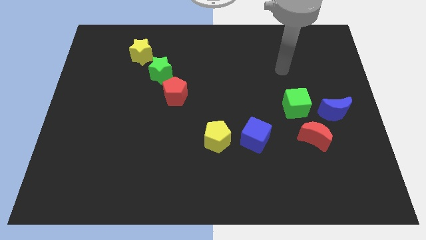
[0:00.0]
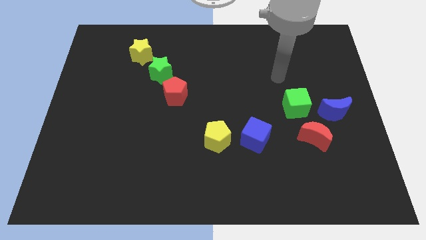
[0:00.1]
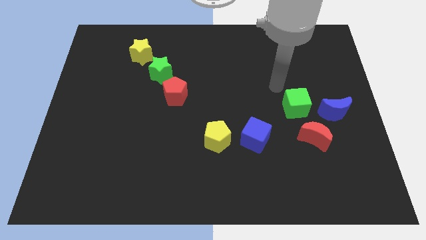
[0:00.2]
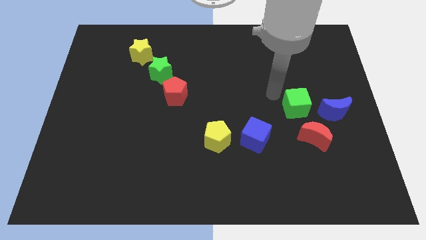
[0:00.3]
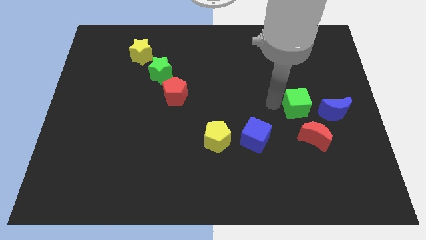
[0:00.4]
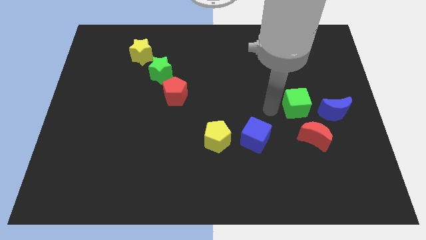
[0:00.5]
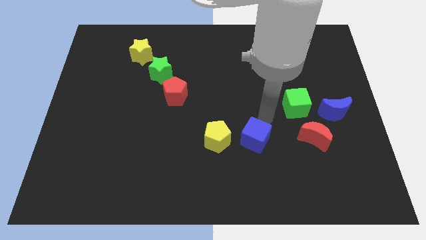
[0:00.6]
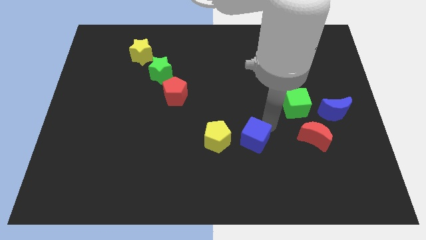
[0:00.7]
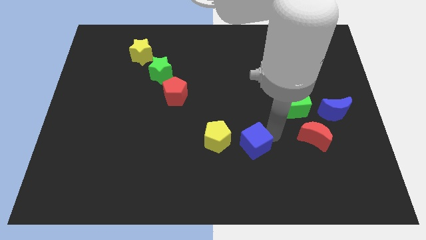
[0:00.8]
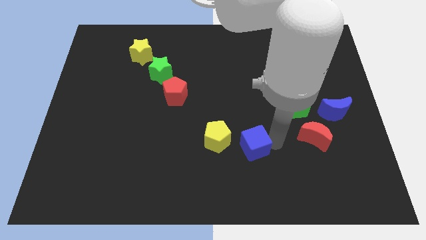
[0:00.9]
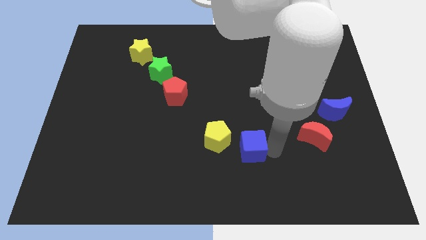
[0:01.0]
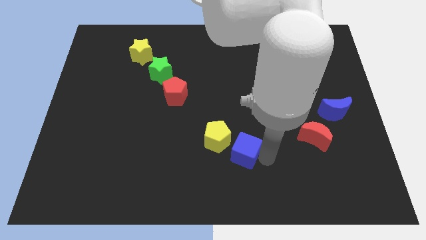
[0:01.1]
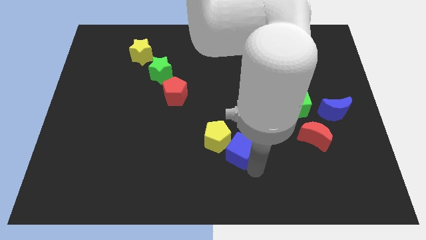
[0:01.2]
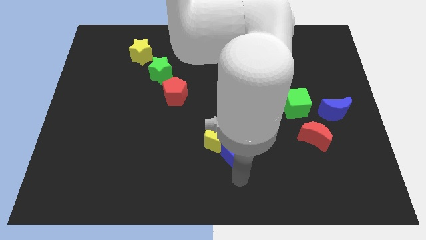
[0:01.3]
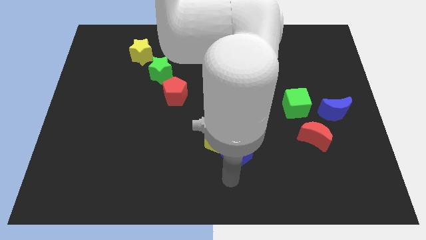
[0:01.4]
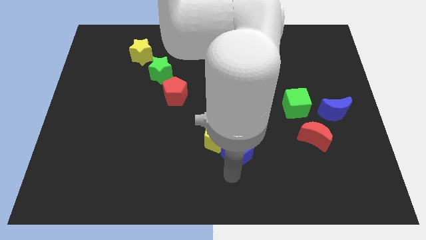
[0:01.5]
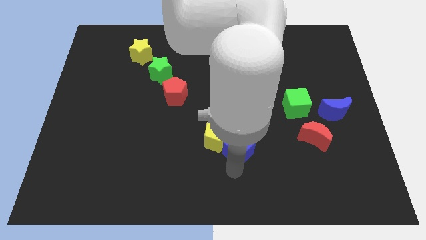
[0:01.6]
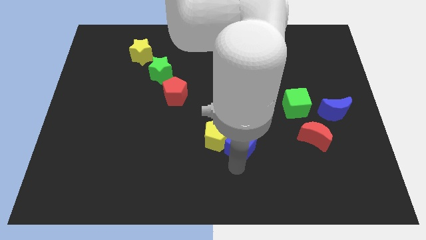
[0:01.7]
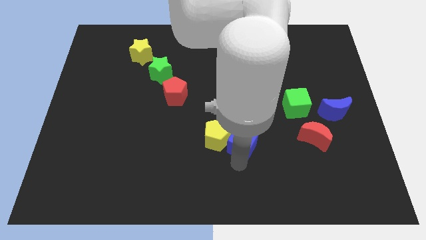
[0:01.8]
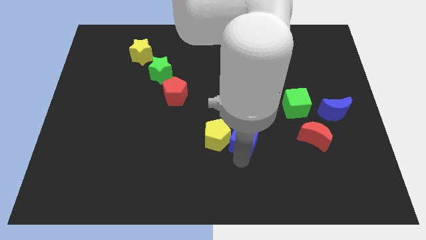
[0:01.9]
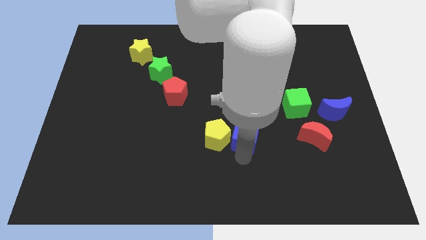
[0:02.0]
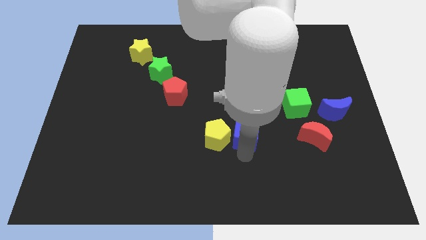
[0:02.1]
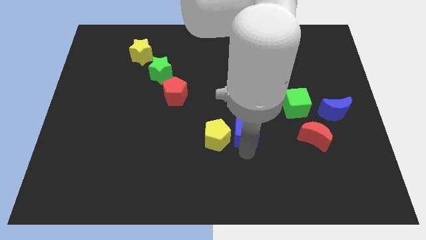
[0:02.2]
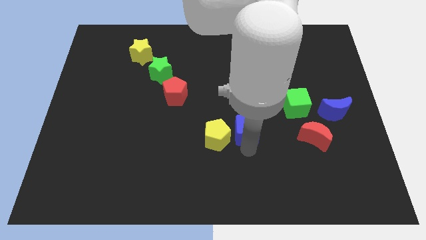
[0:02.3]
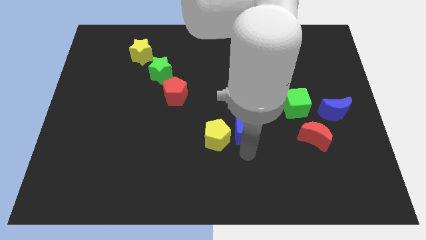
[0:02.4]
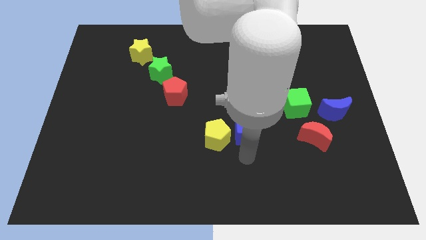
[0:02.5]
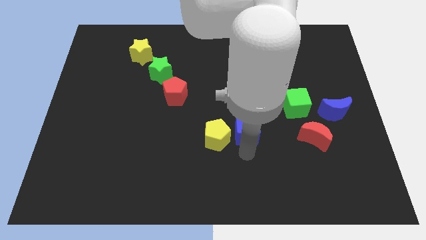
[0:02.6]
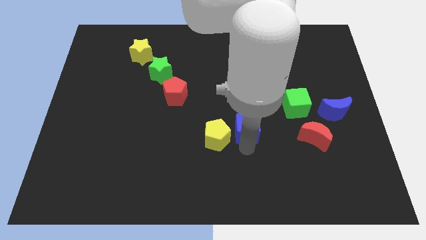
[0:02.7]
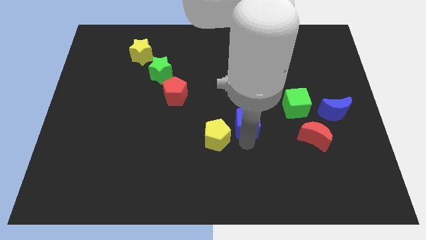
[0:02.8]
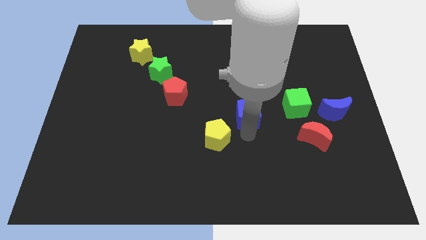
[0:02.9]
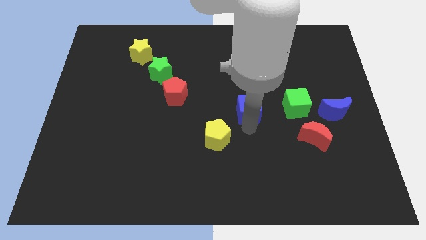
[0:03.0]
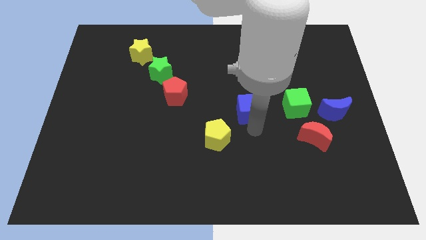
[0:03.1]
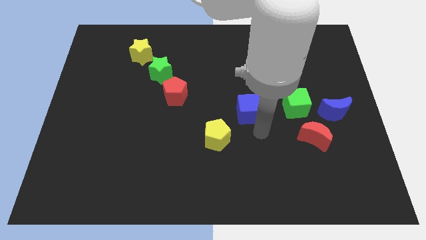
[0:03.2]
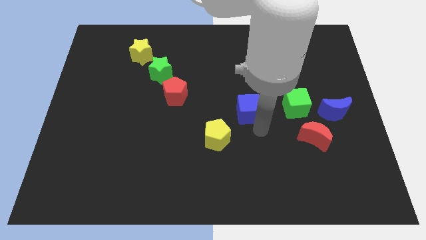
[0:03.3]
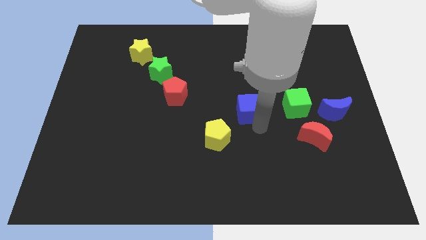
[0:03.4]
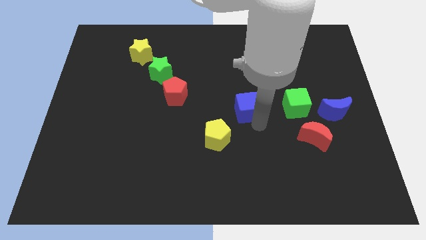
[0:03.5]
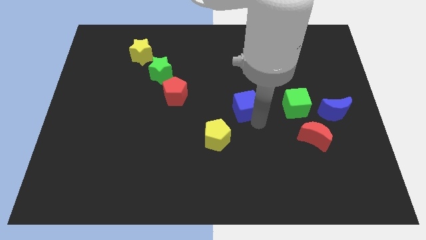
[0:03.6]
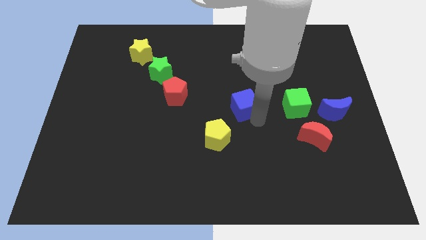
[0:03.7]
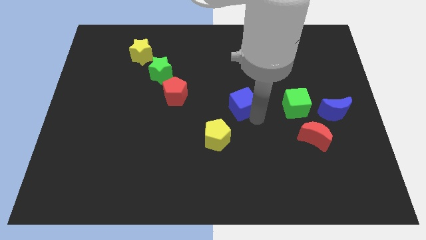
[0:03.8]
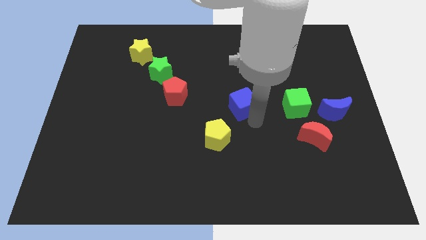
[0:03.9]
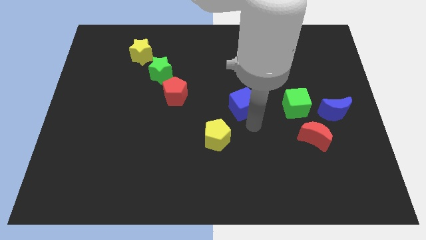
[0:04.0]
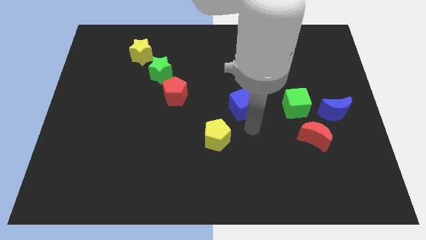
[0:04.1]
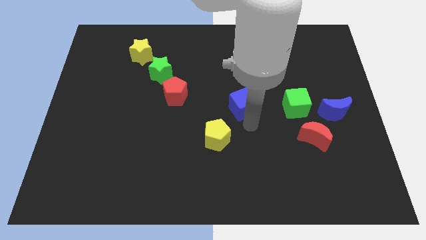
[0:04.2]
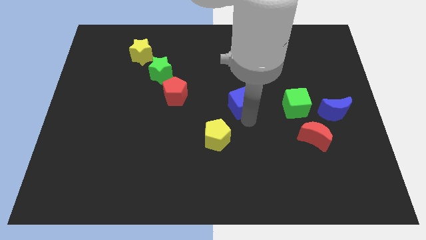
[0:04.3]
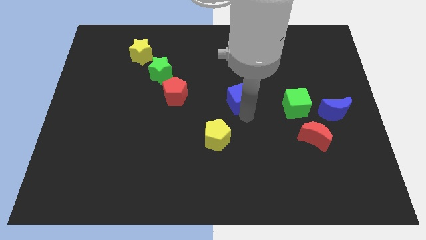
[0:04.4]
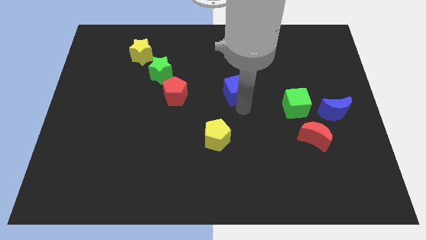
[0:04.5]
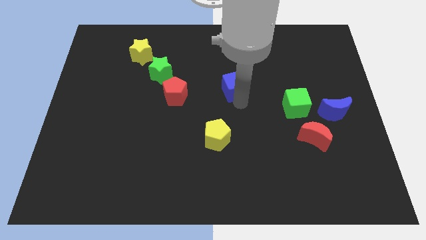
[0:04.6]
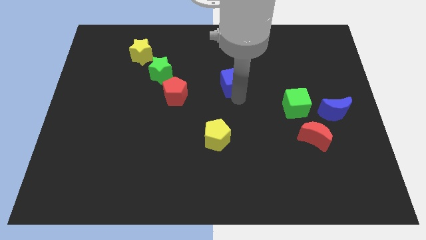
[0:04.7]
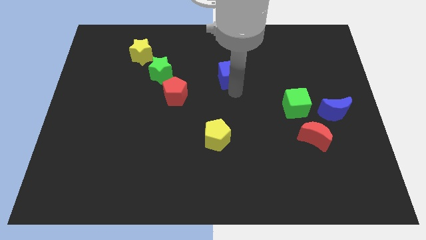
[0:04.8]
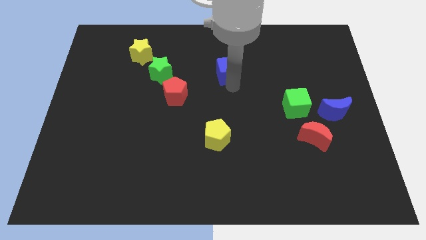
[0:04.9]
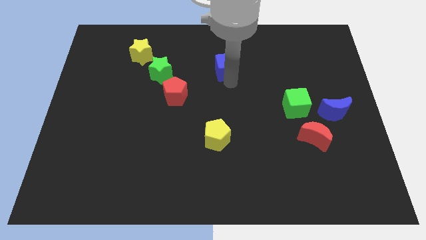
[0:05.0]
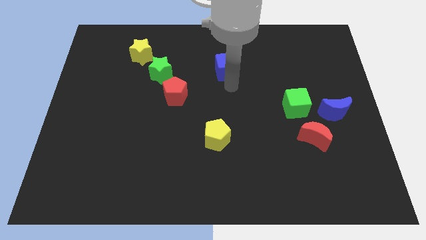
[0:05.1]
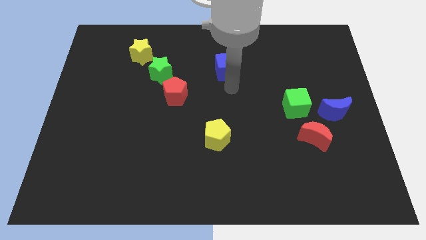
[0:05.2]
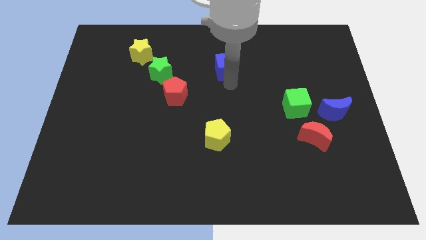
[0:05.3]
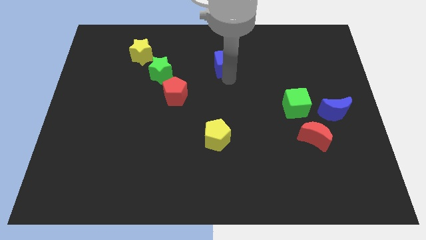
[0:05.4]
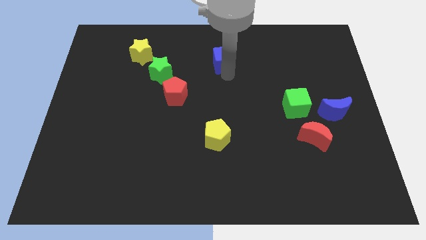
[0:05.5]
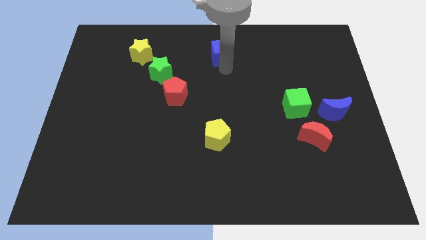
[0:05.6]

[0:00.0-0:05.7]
push the blue cube to the top
